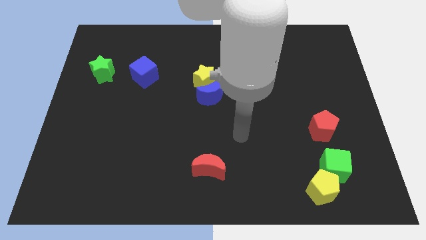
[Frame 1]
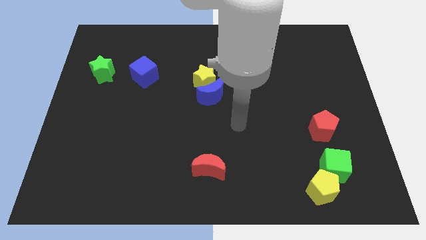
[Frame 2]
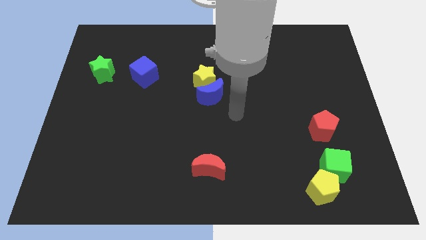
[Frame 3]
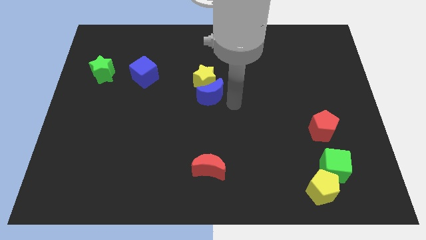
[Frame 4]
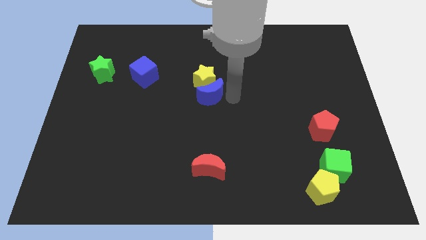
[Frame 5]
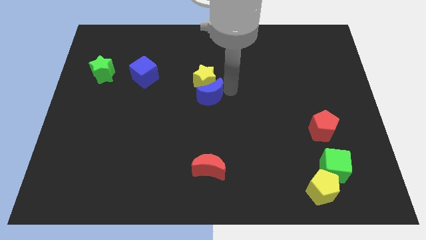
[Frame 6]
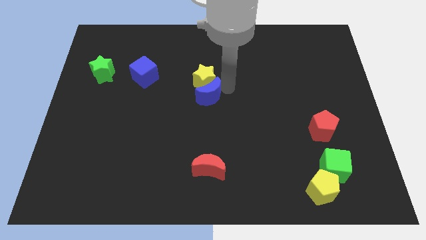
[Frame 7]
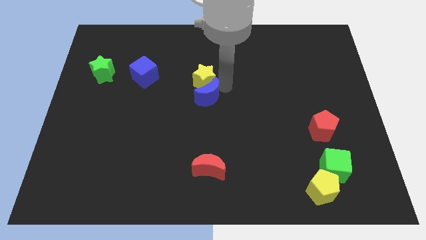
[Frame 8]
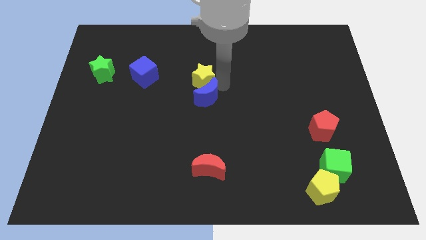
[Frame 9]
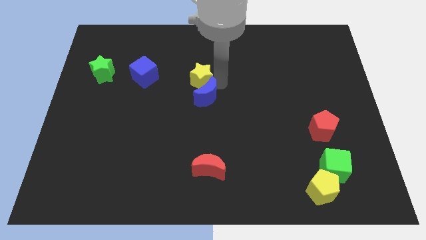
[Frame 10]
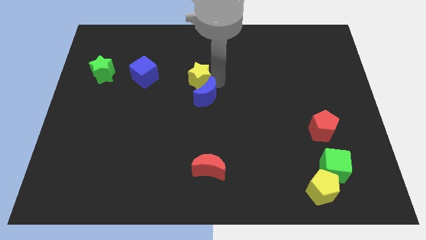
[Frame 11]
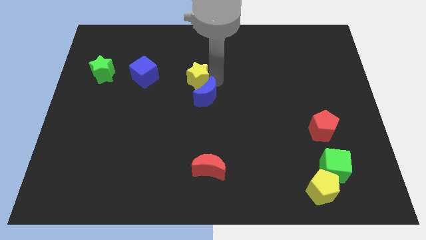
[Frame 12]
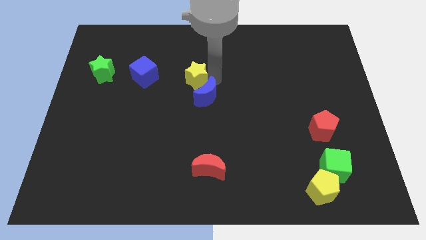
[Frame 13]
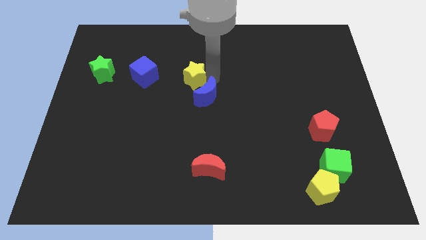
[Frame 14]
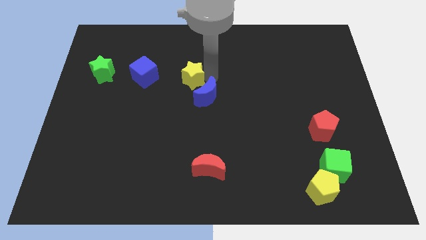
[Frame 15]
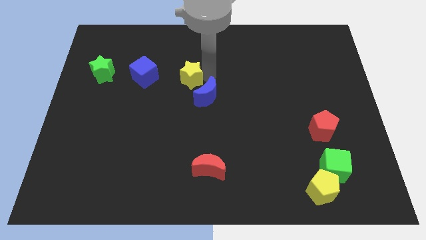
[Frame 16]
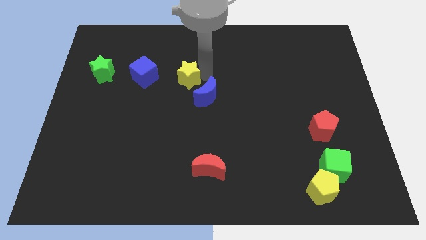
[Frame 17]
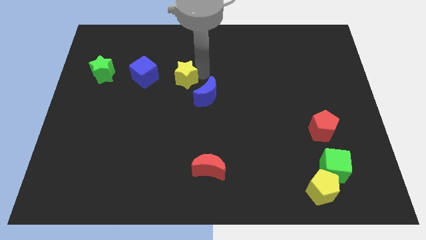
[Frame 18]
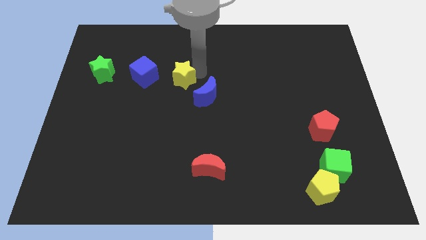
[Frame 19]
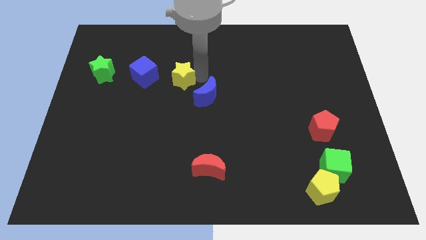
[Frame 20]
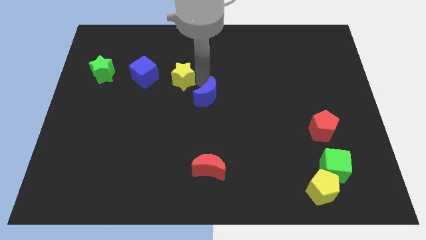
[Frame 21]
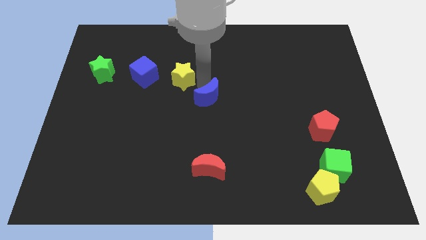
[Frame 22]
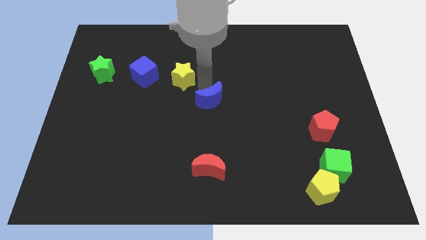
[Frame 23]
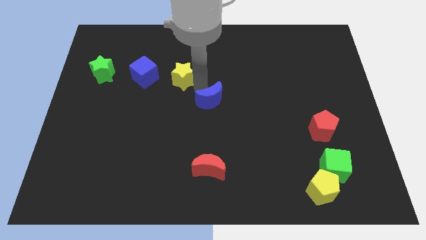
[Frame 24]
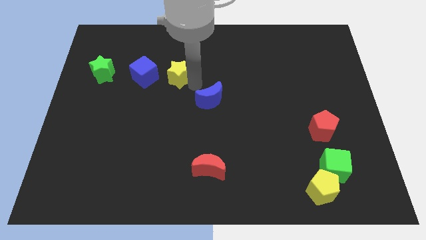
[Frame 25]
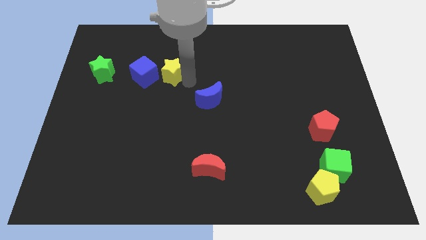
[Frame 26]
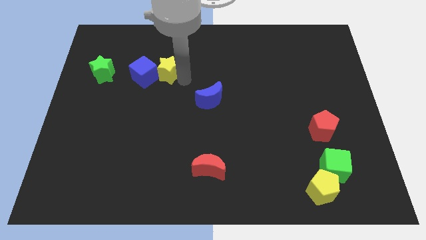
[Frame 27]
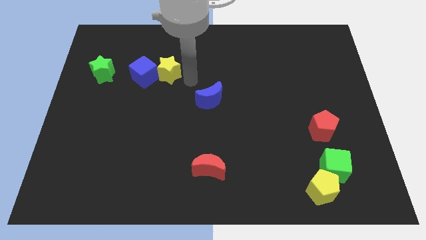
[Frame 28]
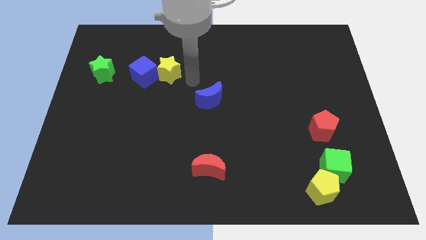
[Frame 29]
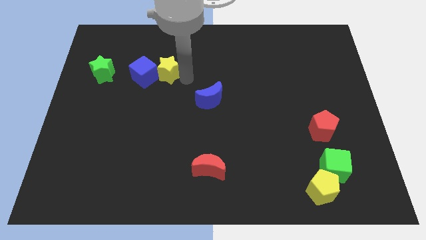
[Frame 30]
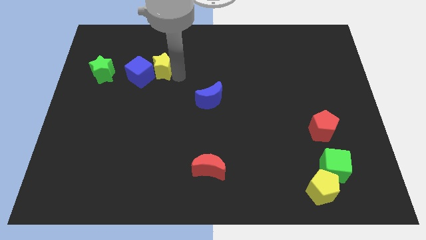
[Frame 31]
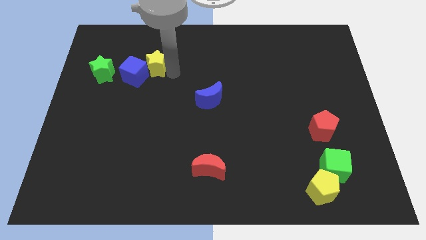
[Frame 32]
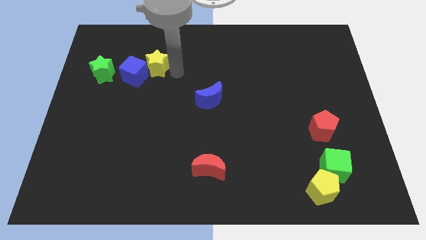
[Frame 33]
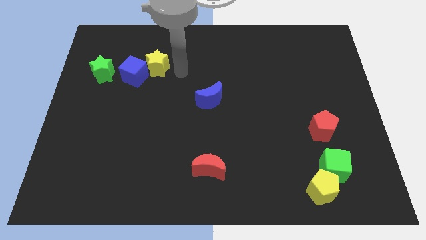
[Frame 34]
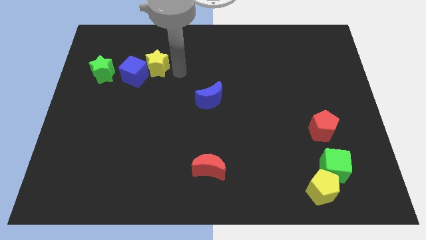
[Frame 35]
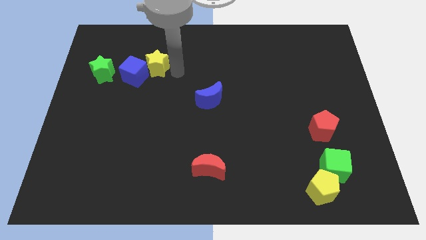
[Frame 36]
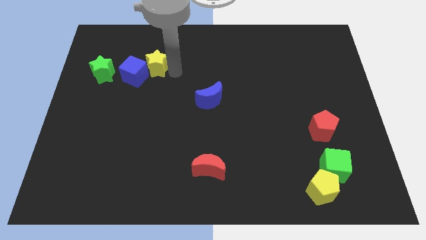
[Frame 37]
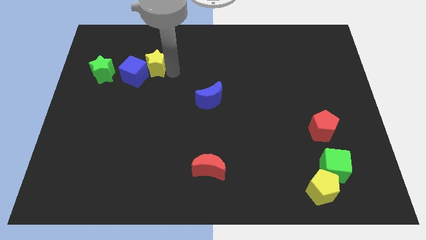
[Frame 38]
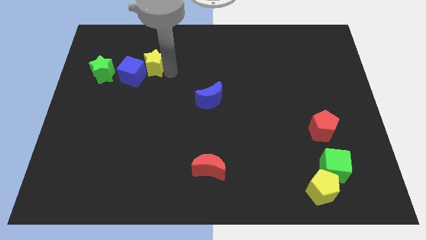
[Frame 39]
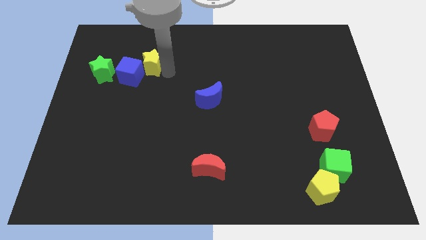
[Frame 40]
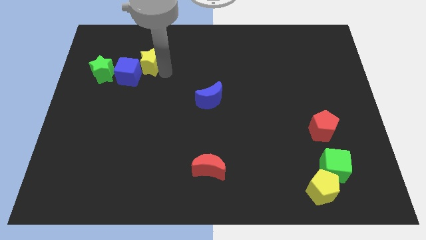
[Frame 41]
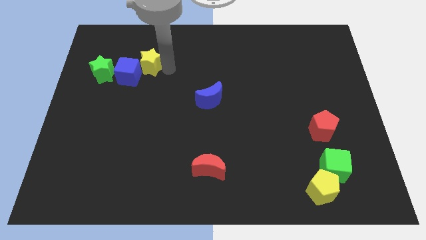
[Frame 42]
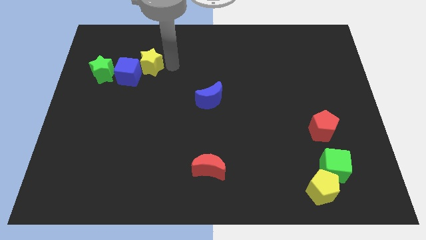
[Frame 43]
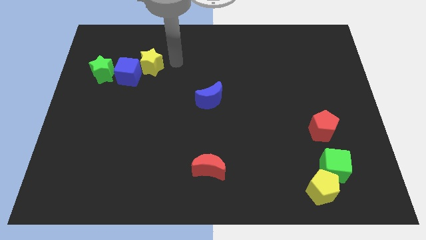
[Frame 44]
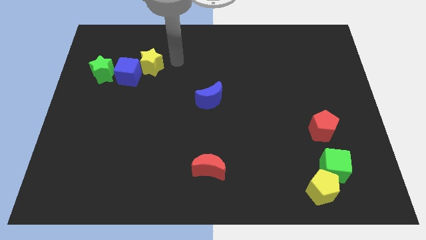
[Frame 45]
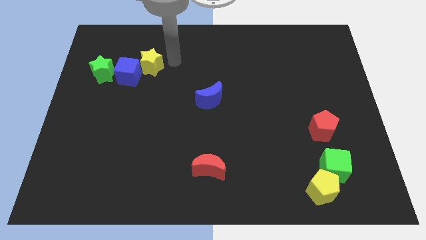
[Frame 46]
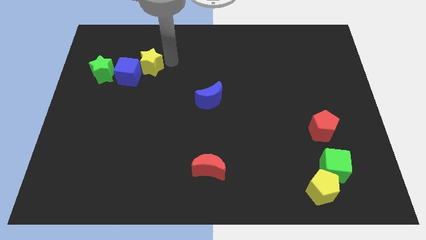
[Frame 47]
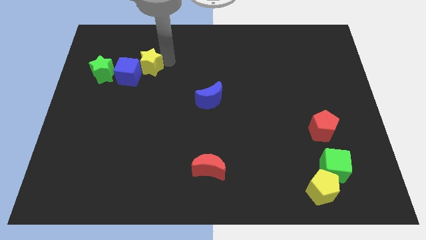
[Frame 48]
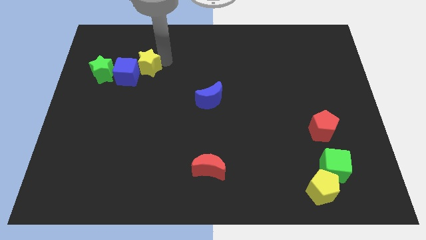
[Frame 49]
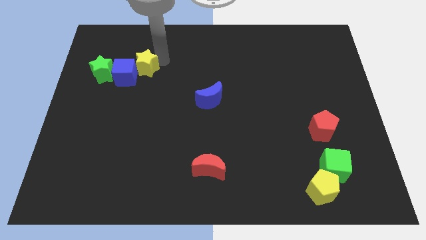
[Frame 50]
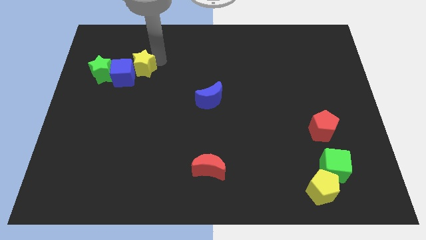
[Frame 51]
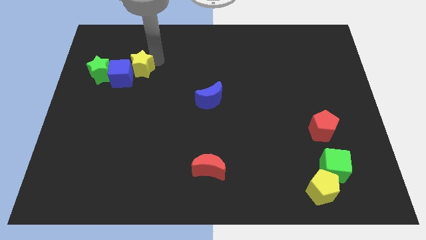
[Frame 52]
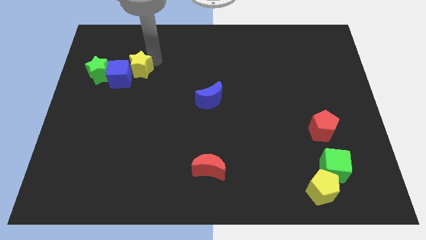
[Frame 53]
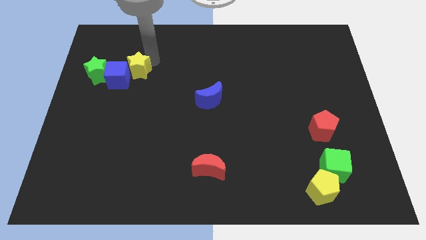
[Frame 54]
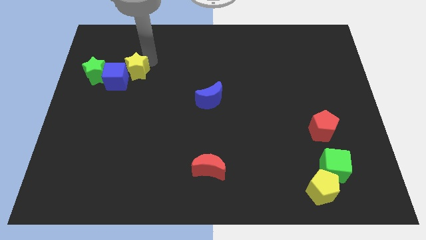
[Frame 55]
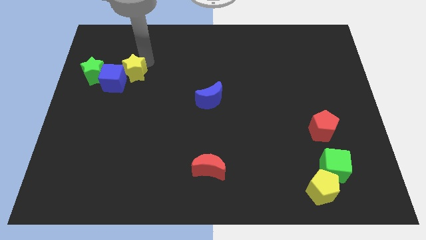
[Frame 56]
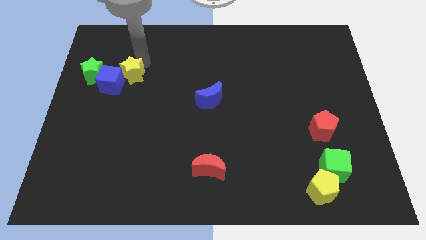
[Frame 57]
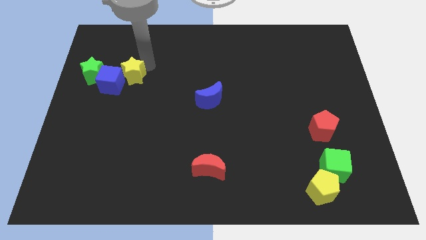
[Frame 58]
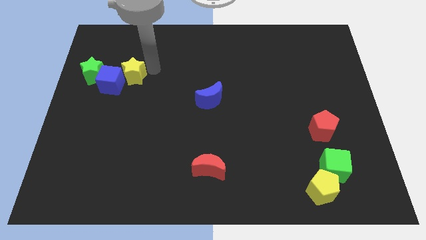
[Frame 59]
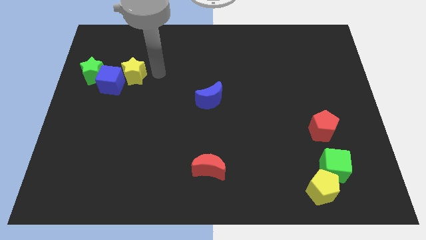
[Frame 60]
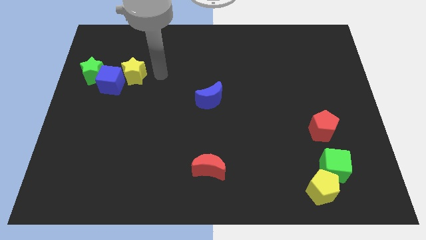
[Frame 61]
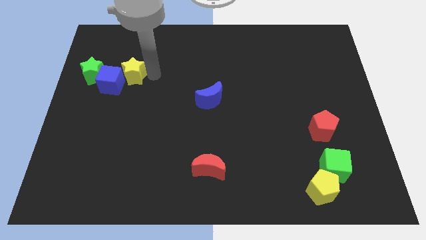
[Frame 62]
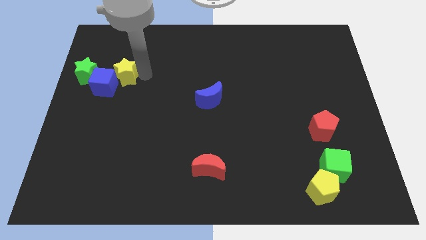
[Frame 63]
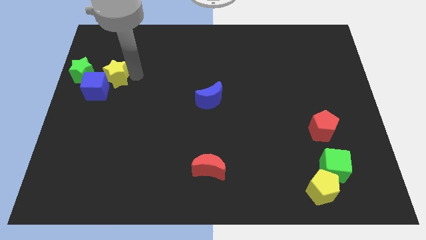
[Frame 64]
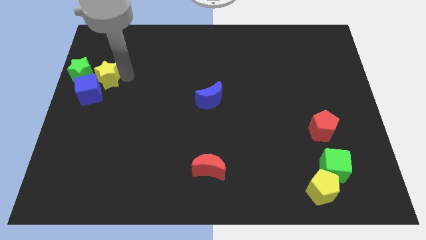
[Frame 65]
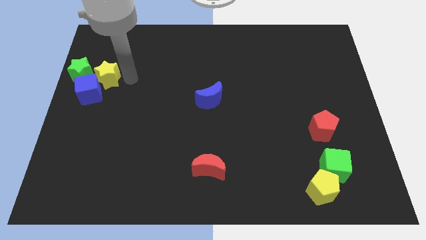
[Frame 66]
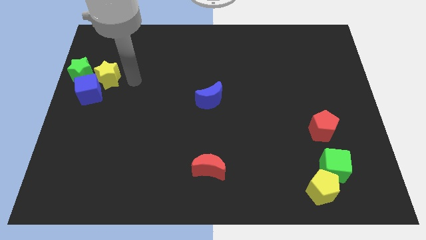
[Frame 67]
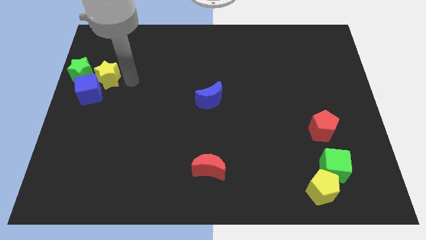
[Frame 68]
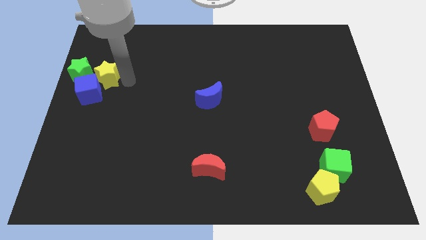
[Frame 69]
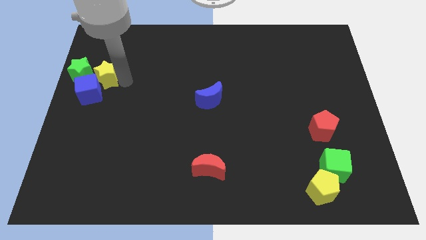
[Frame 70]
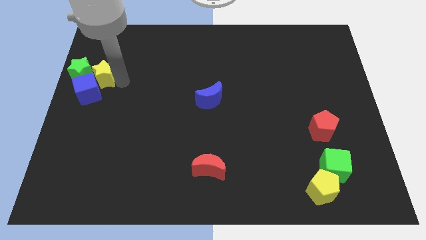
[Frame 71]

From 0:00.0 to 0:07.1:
put the yellow star next to the green star

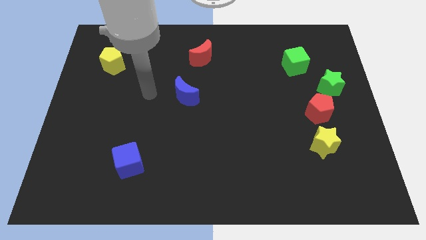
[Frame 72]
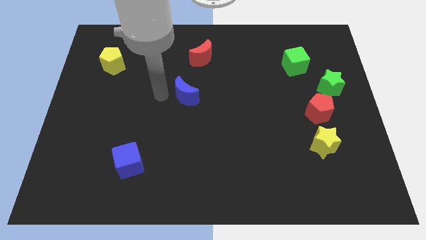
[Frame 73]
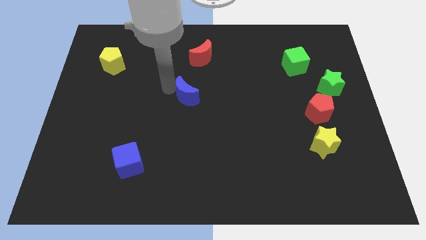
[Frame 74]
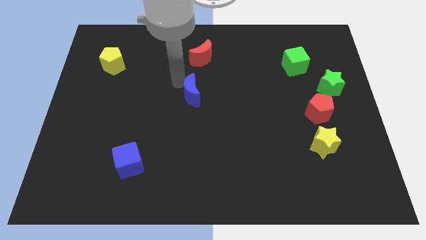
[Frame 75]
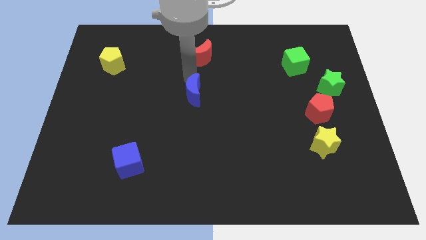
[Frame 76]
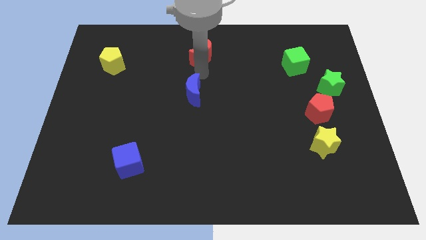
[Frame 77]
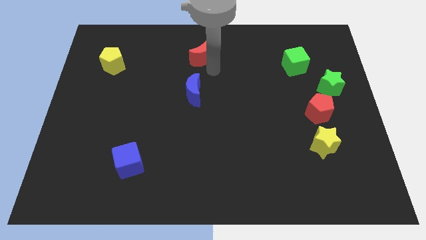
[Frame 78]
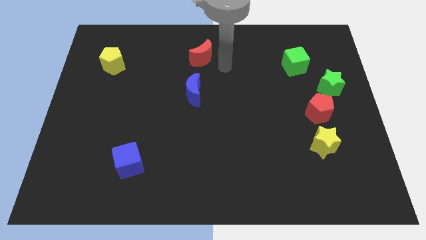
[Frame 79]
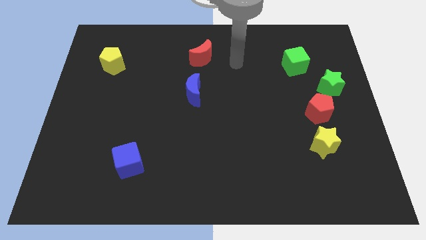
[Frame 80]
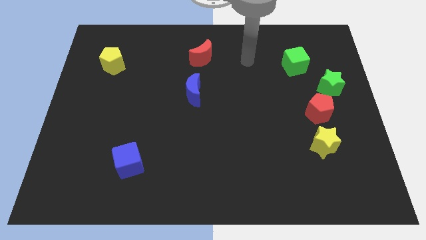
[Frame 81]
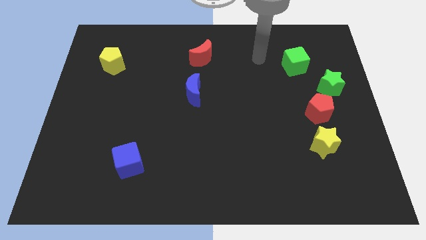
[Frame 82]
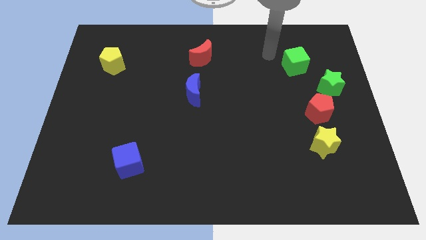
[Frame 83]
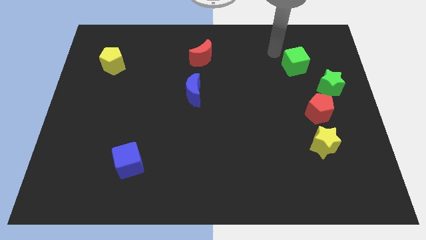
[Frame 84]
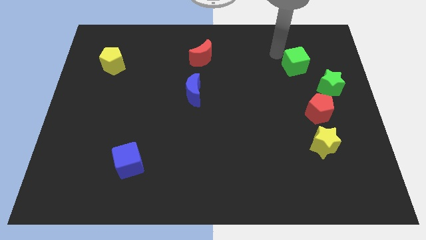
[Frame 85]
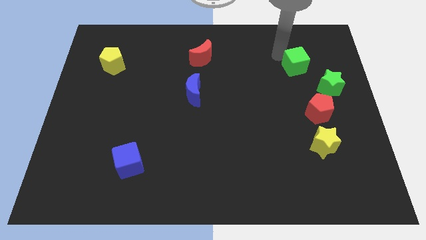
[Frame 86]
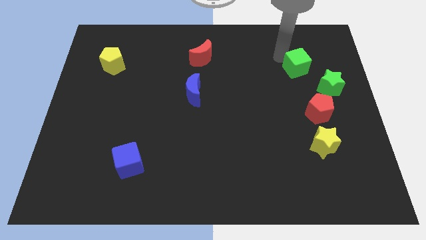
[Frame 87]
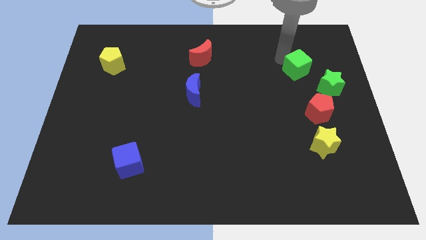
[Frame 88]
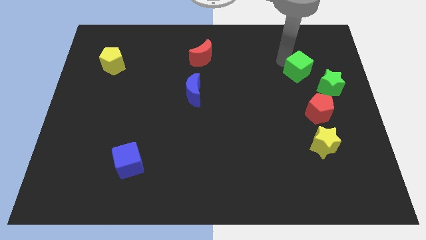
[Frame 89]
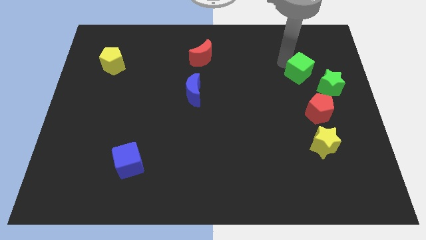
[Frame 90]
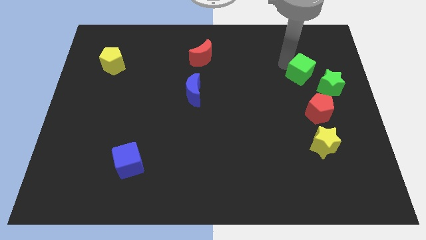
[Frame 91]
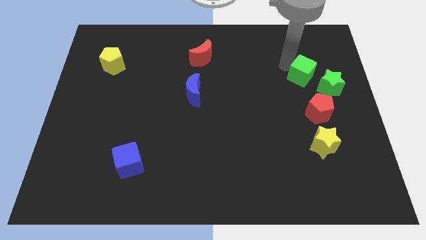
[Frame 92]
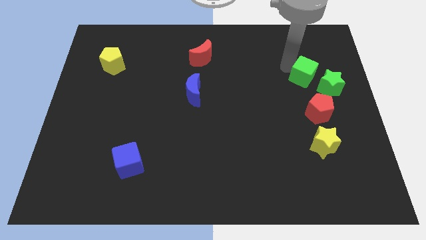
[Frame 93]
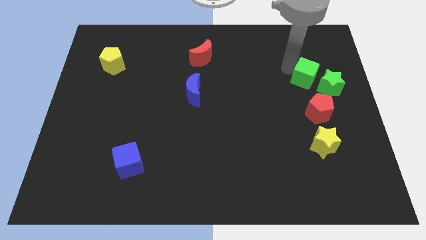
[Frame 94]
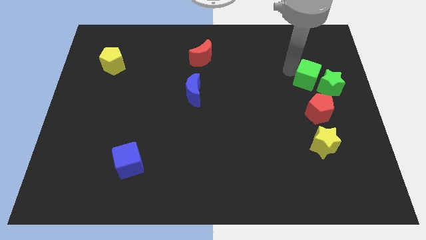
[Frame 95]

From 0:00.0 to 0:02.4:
slide the green cube next to the green star
